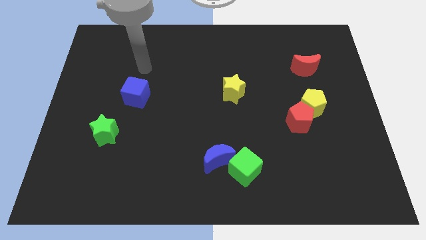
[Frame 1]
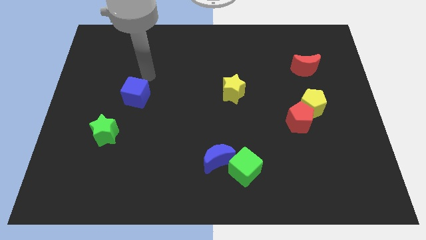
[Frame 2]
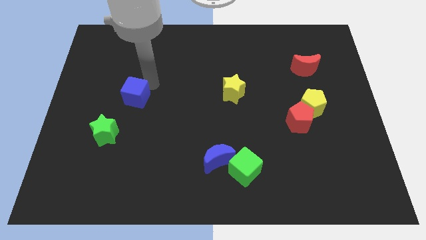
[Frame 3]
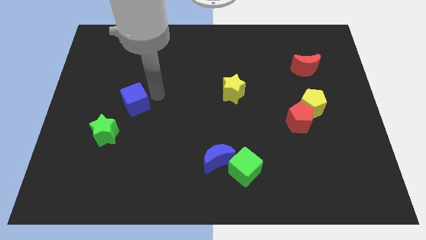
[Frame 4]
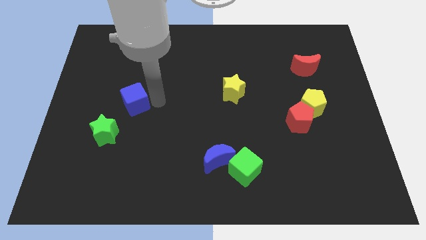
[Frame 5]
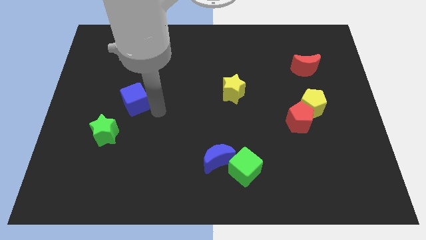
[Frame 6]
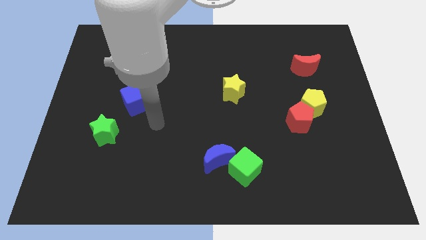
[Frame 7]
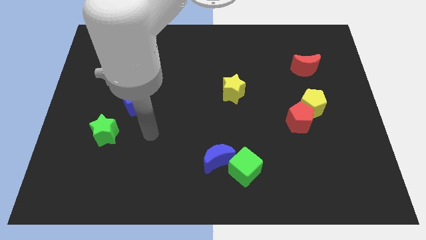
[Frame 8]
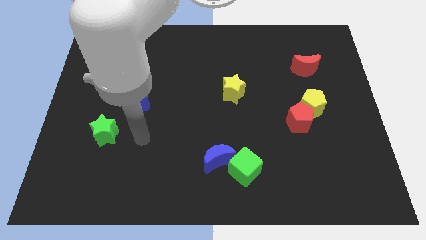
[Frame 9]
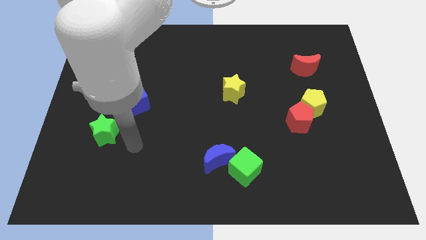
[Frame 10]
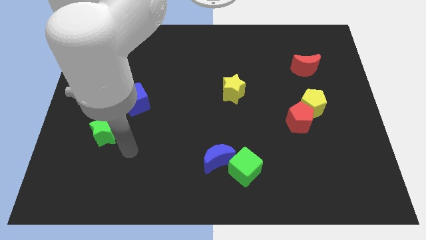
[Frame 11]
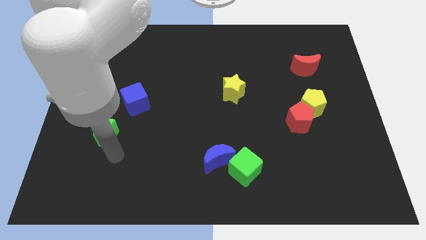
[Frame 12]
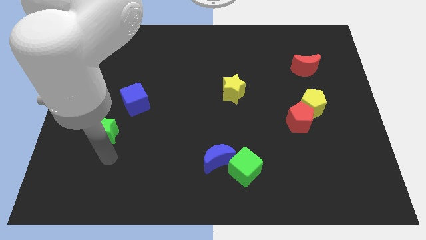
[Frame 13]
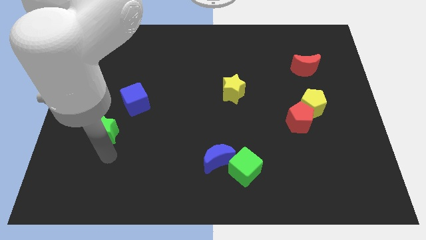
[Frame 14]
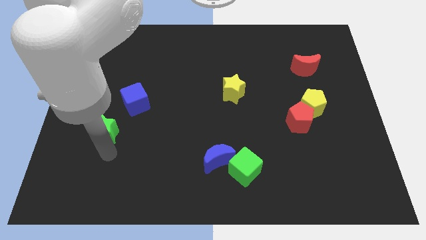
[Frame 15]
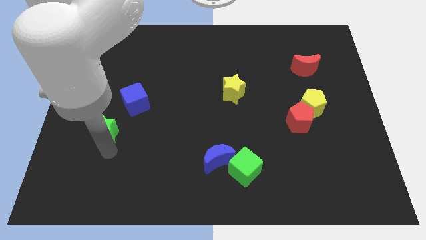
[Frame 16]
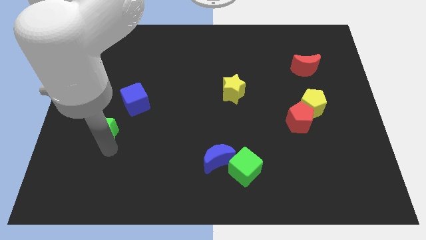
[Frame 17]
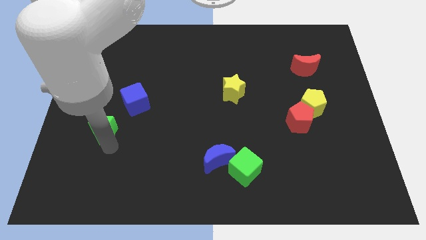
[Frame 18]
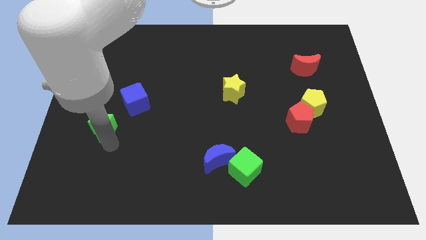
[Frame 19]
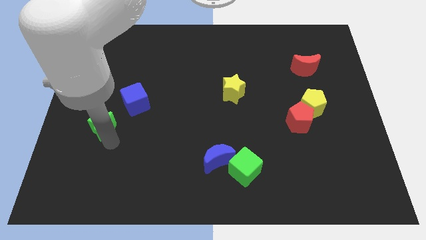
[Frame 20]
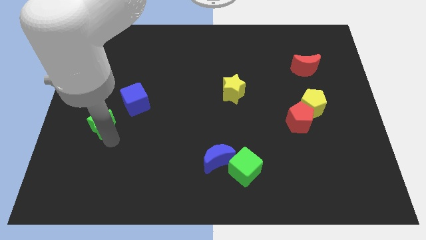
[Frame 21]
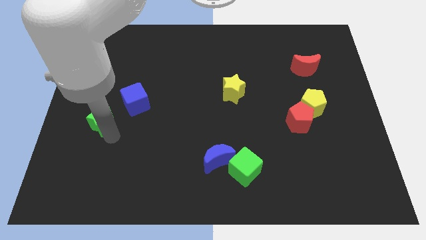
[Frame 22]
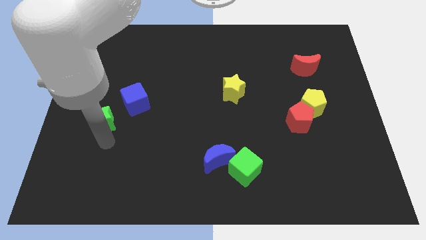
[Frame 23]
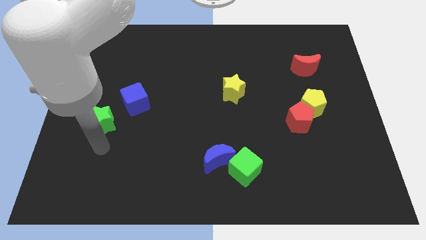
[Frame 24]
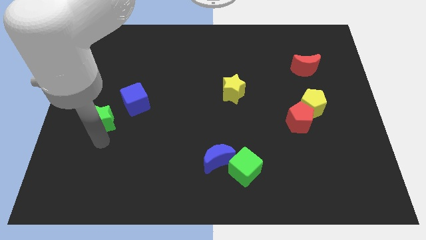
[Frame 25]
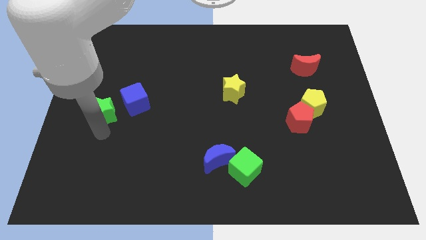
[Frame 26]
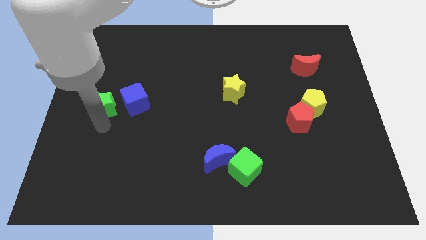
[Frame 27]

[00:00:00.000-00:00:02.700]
move the green star a little up

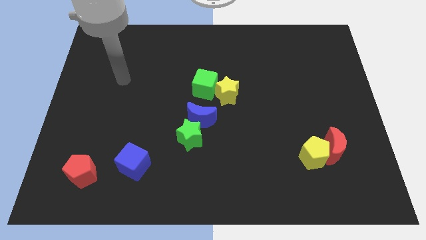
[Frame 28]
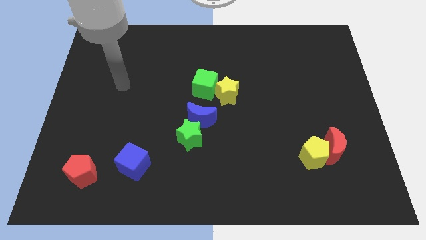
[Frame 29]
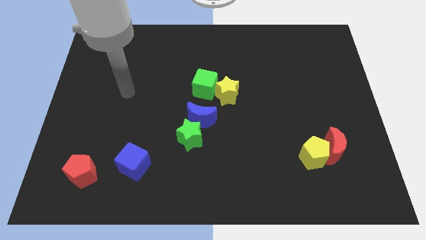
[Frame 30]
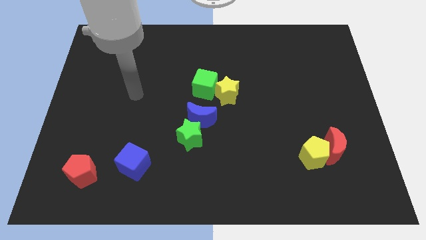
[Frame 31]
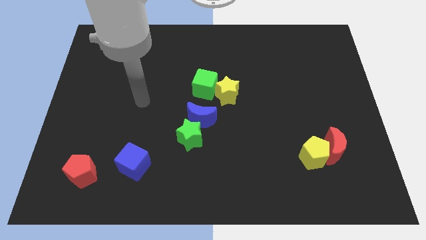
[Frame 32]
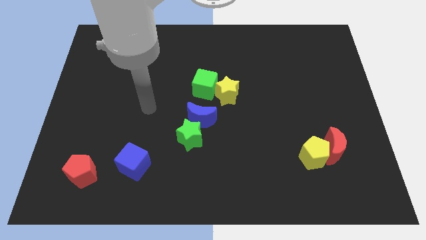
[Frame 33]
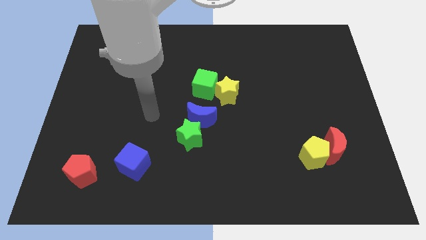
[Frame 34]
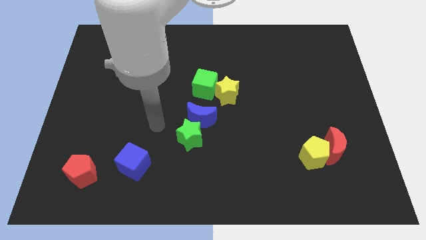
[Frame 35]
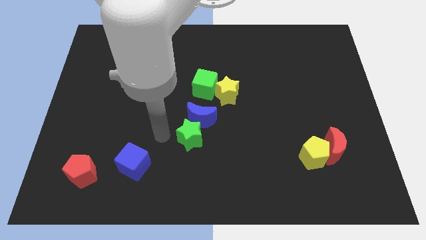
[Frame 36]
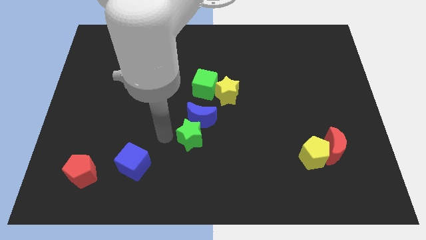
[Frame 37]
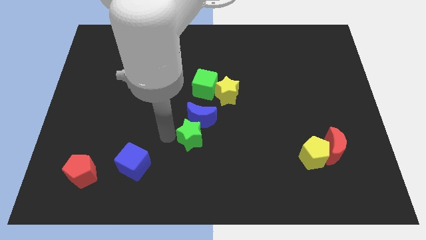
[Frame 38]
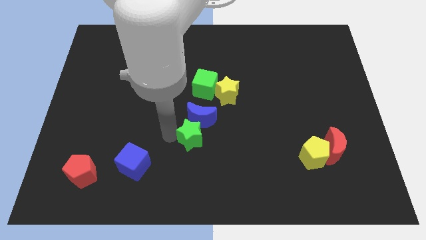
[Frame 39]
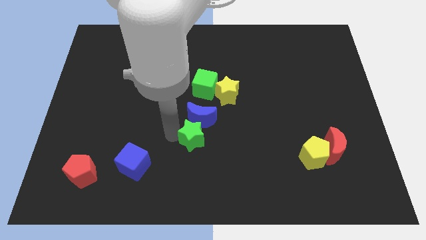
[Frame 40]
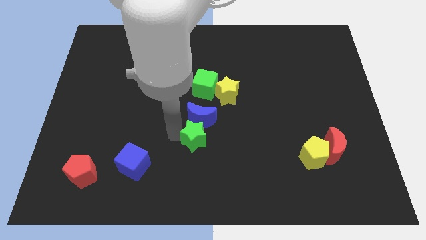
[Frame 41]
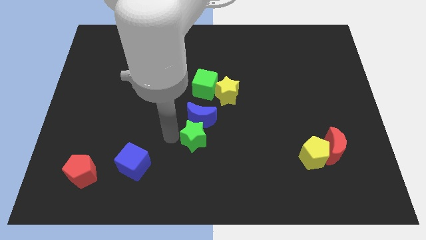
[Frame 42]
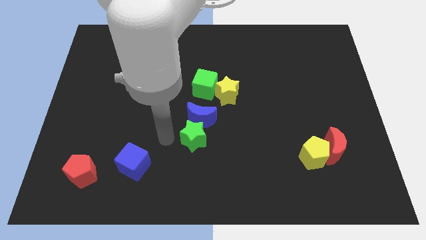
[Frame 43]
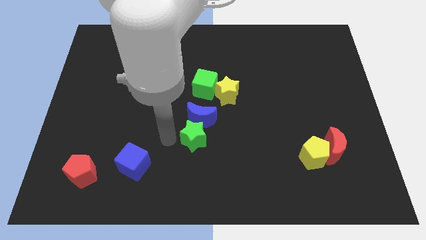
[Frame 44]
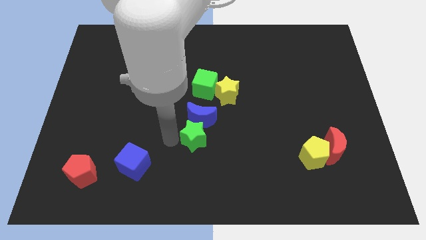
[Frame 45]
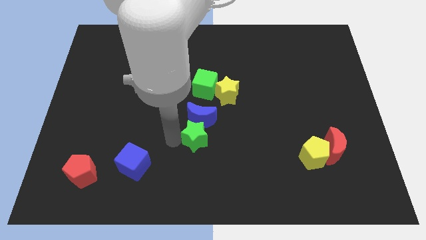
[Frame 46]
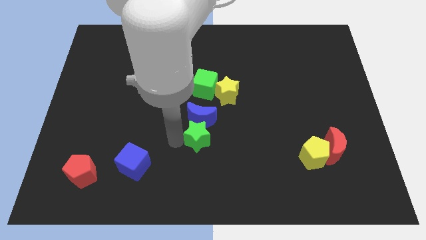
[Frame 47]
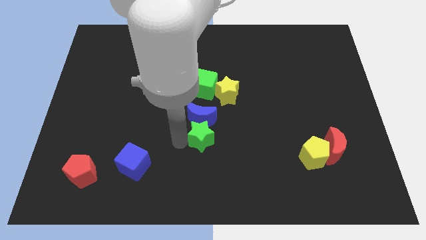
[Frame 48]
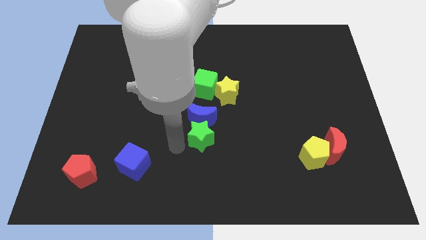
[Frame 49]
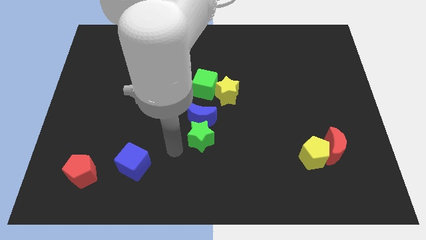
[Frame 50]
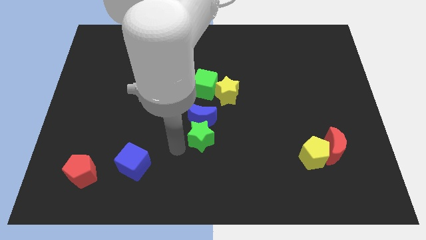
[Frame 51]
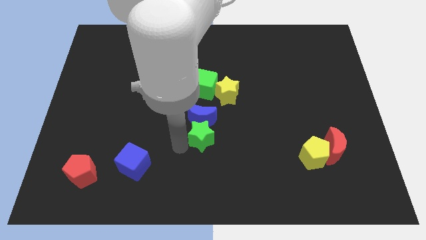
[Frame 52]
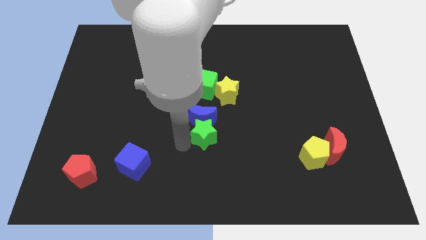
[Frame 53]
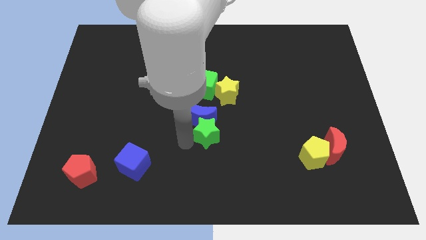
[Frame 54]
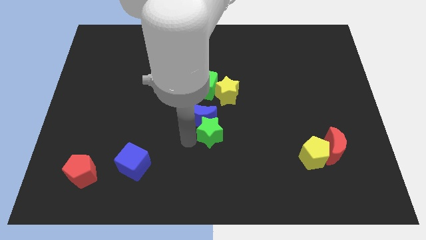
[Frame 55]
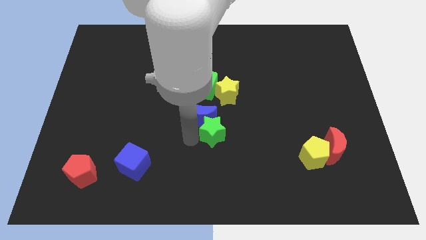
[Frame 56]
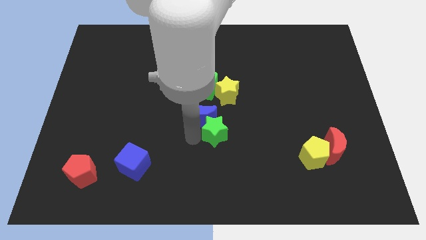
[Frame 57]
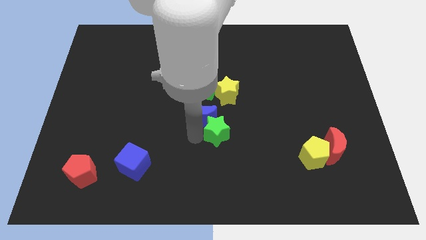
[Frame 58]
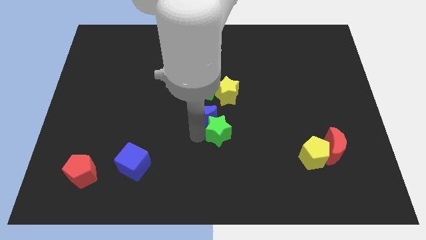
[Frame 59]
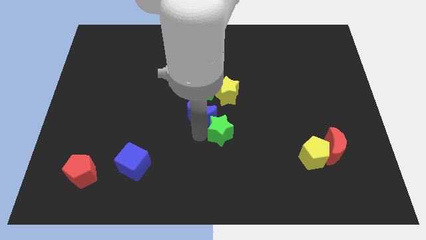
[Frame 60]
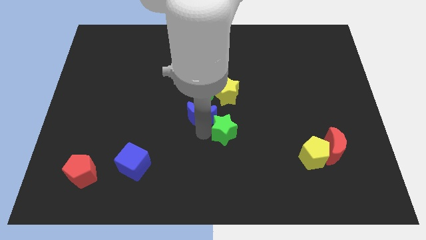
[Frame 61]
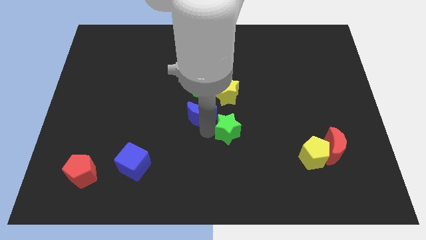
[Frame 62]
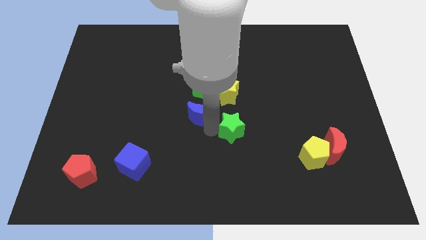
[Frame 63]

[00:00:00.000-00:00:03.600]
slightly slide the green star diagonally upwards and right

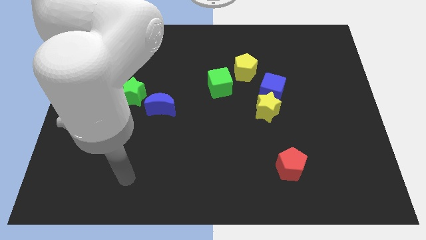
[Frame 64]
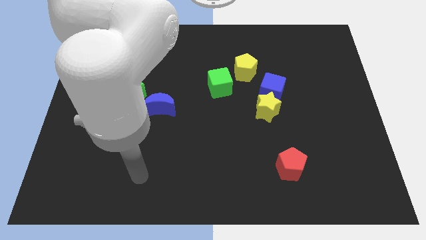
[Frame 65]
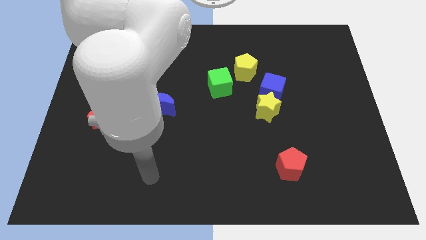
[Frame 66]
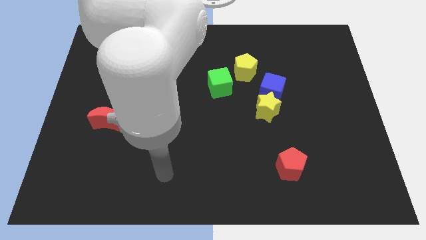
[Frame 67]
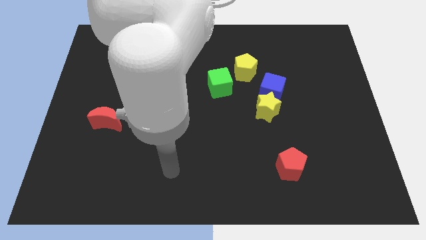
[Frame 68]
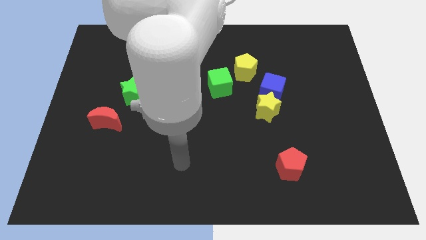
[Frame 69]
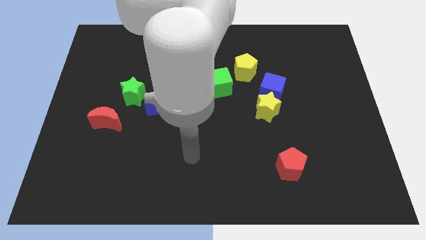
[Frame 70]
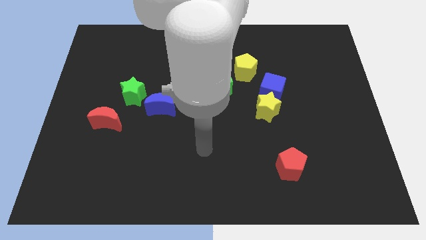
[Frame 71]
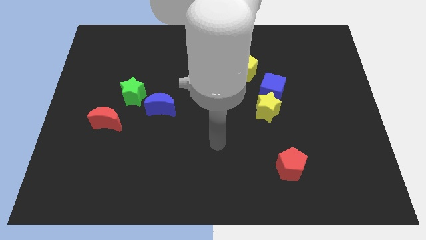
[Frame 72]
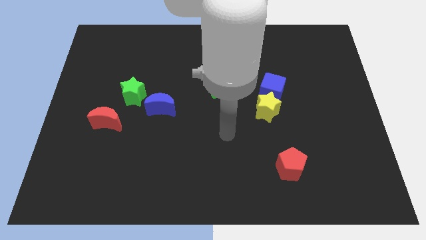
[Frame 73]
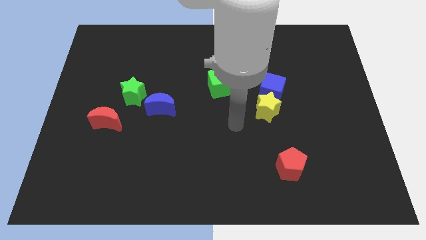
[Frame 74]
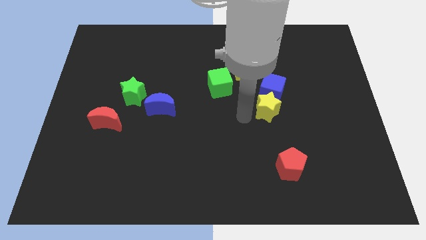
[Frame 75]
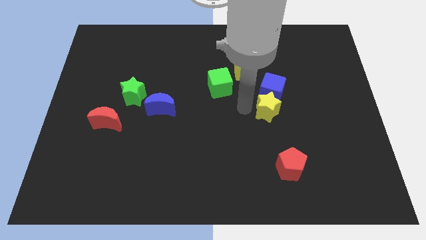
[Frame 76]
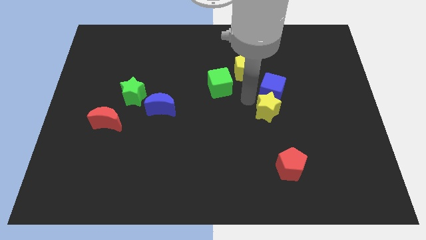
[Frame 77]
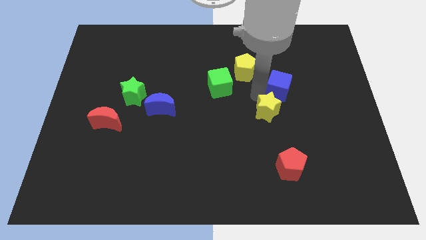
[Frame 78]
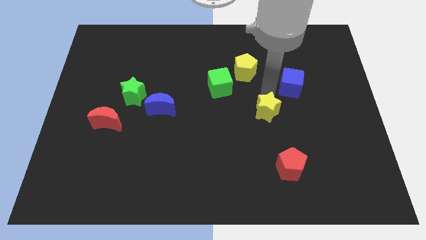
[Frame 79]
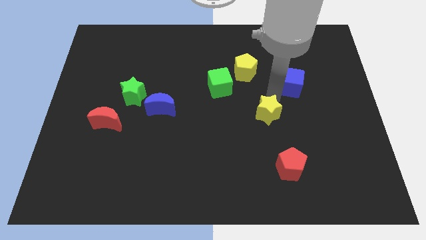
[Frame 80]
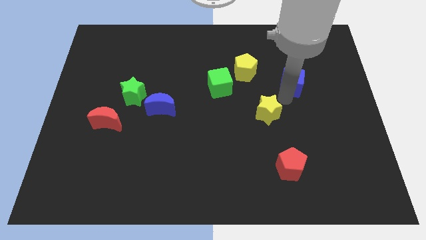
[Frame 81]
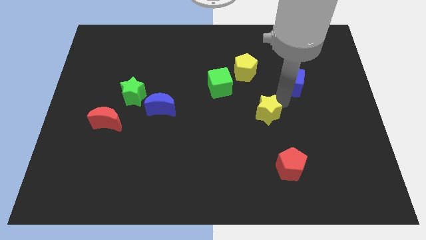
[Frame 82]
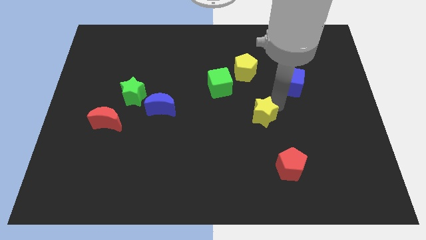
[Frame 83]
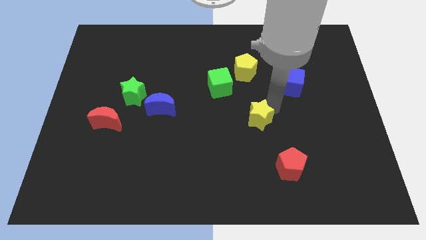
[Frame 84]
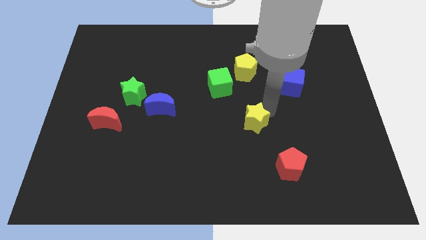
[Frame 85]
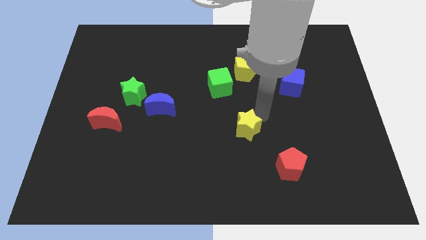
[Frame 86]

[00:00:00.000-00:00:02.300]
push the yellow star a bit diagonally down and left
